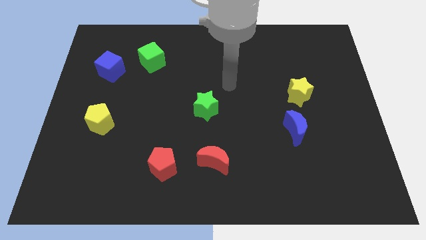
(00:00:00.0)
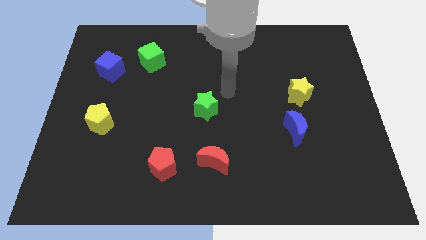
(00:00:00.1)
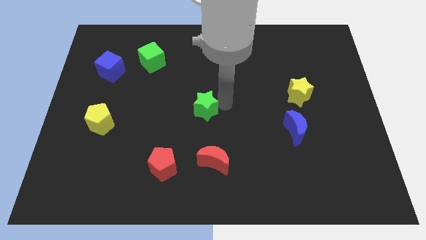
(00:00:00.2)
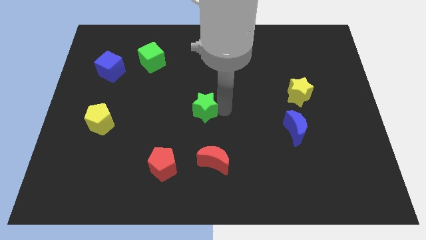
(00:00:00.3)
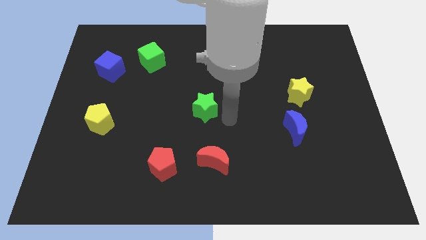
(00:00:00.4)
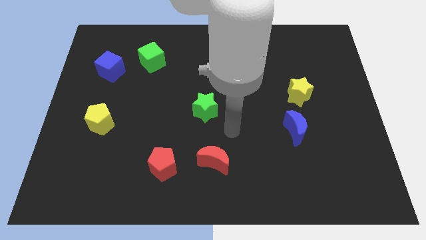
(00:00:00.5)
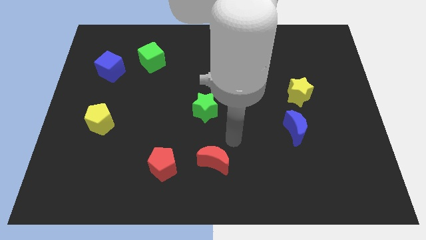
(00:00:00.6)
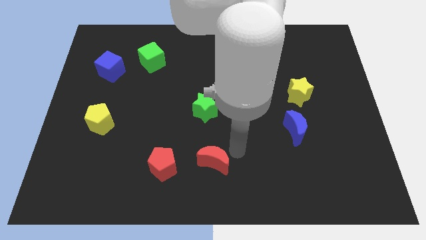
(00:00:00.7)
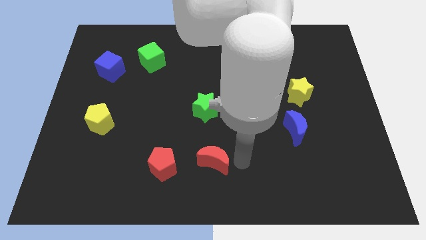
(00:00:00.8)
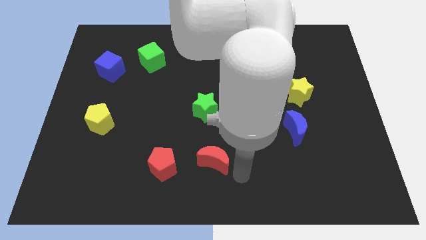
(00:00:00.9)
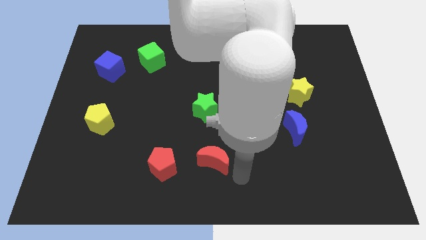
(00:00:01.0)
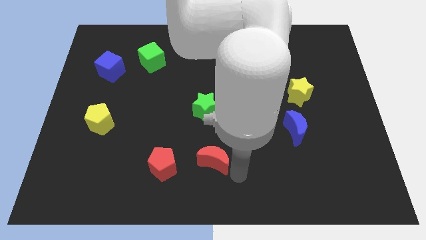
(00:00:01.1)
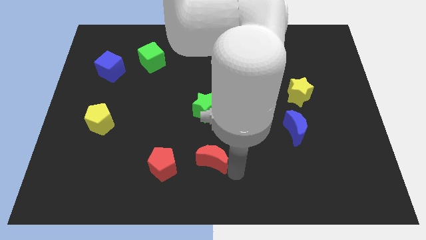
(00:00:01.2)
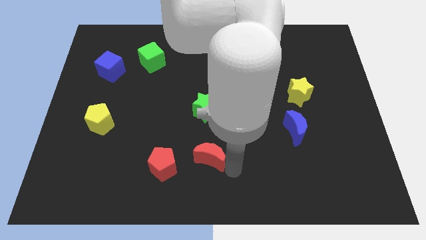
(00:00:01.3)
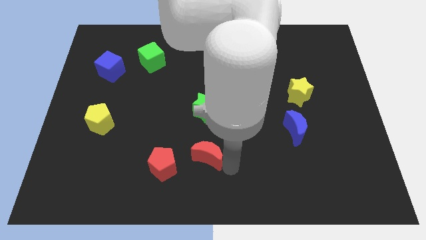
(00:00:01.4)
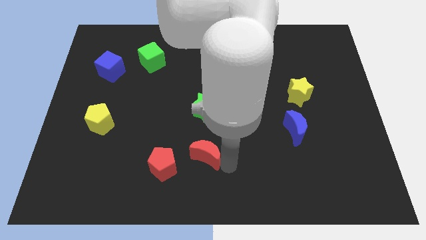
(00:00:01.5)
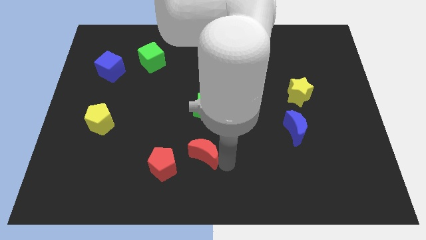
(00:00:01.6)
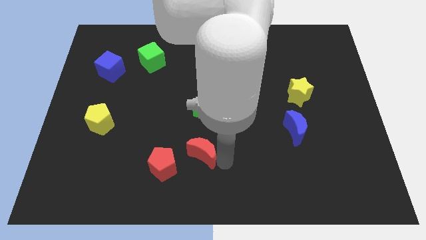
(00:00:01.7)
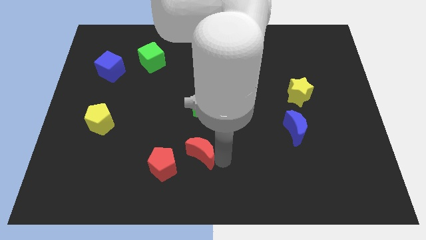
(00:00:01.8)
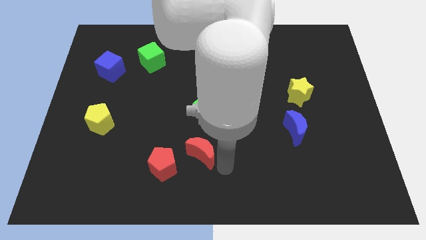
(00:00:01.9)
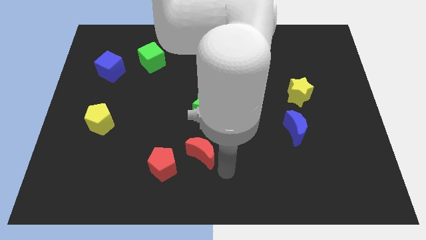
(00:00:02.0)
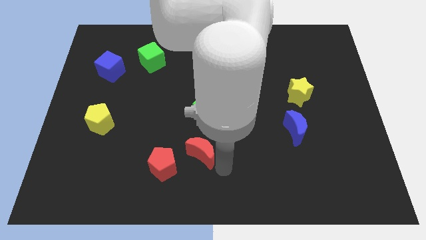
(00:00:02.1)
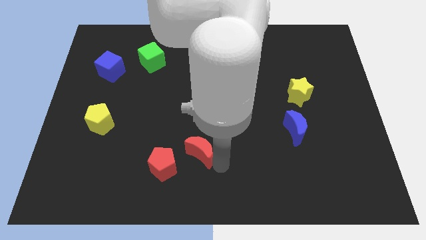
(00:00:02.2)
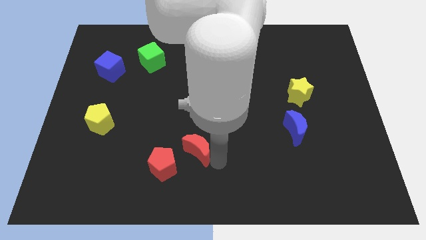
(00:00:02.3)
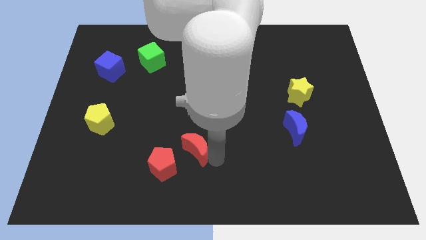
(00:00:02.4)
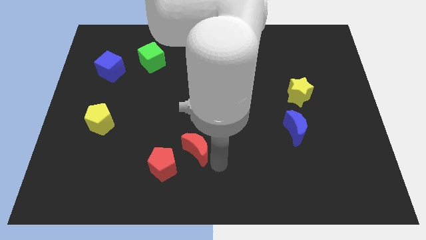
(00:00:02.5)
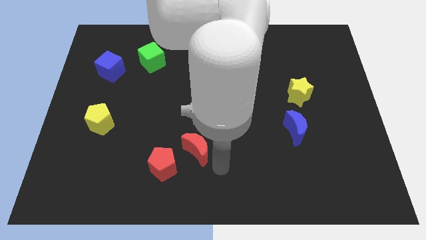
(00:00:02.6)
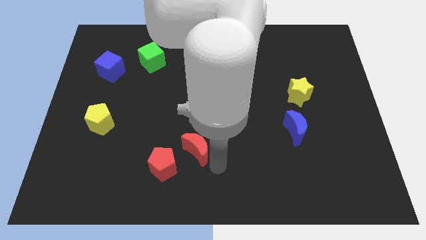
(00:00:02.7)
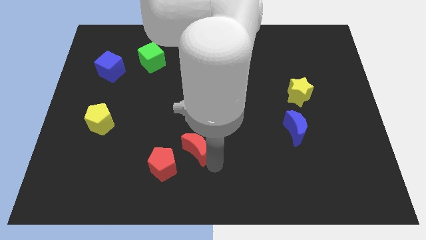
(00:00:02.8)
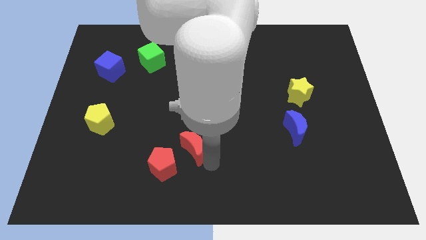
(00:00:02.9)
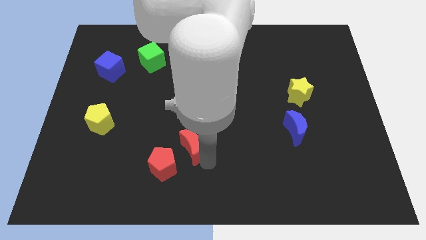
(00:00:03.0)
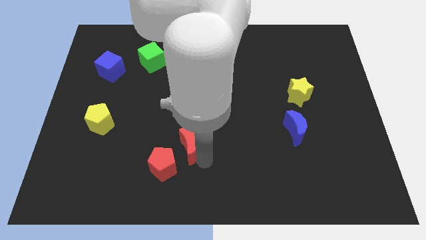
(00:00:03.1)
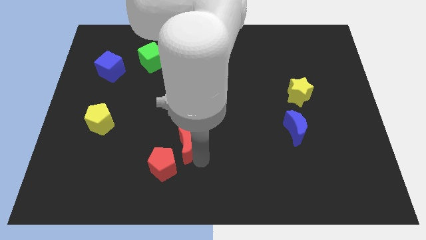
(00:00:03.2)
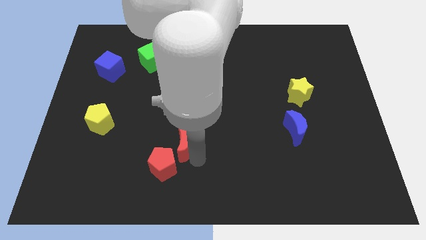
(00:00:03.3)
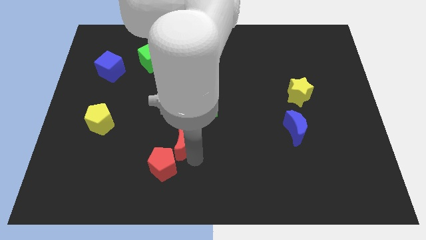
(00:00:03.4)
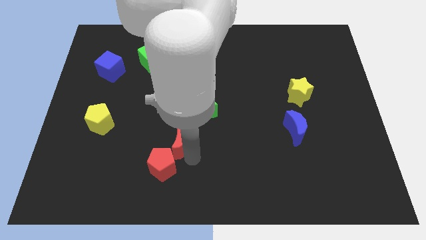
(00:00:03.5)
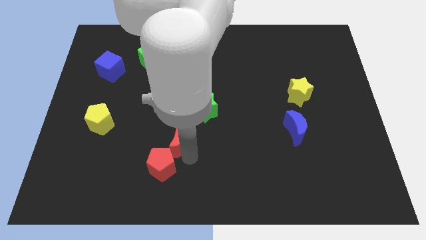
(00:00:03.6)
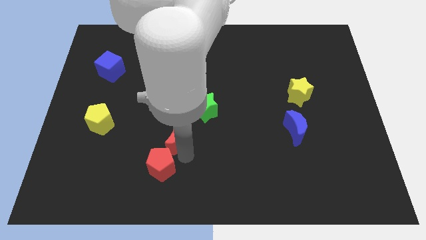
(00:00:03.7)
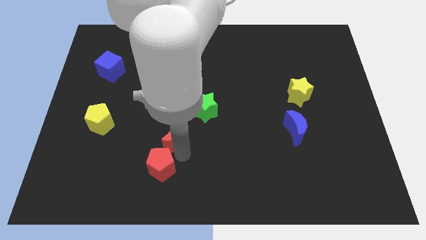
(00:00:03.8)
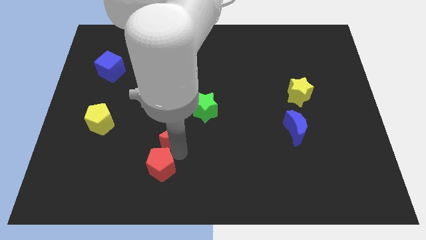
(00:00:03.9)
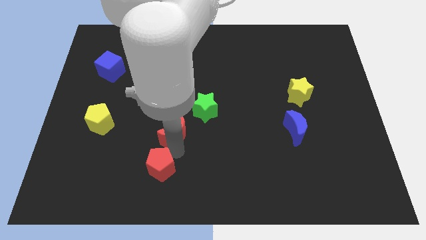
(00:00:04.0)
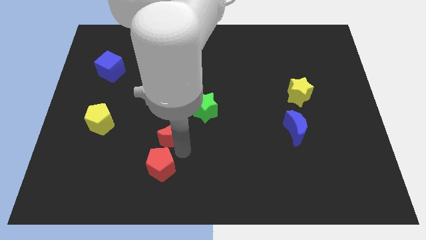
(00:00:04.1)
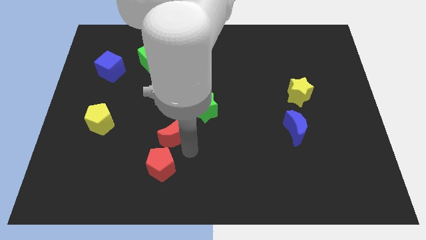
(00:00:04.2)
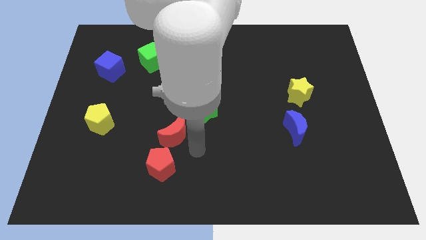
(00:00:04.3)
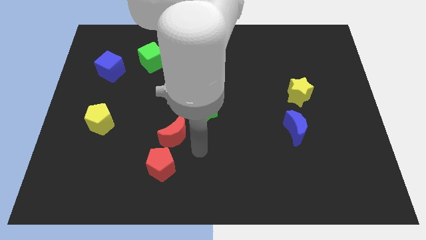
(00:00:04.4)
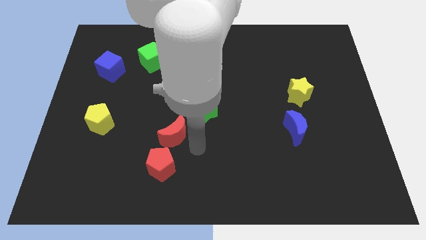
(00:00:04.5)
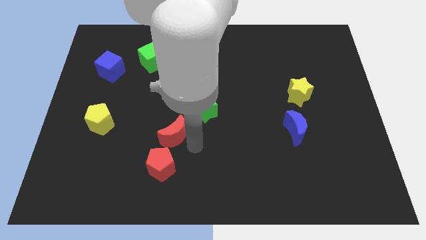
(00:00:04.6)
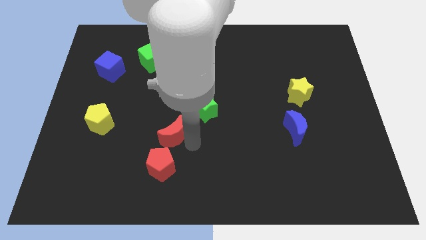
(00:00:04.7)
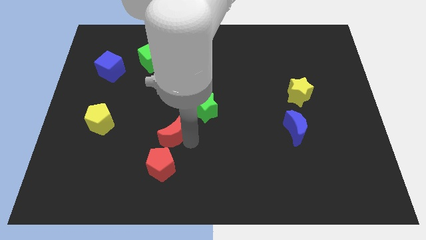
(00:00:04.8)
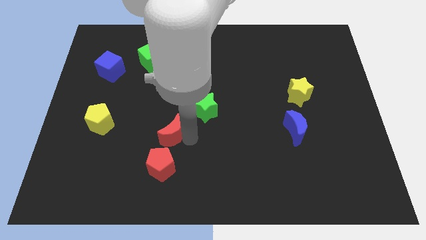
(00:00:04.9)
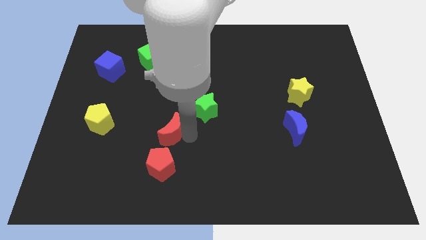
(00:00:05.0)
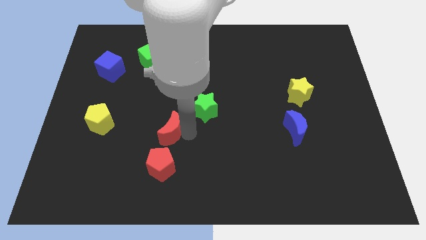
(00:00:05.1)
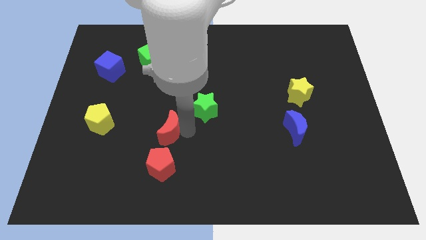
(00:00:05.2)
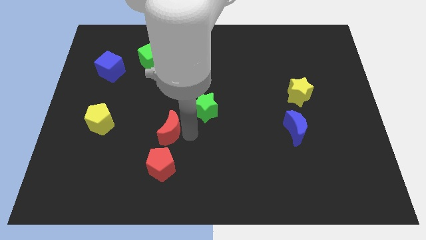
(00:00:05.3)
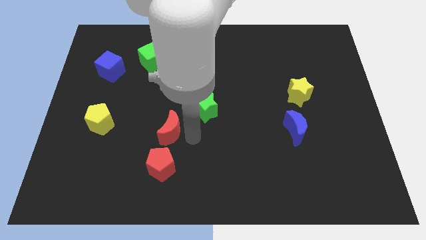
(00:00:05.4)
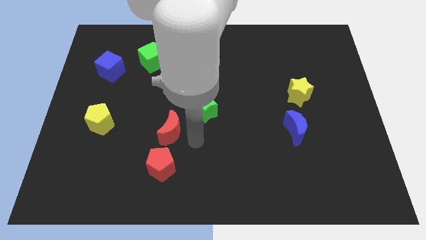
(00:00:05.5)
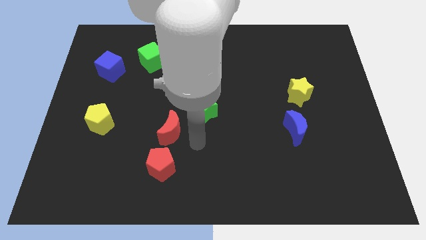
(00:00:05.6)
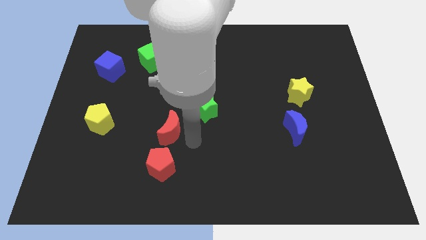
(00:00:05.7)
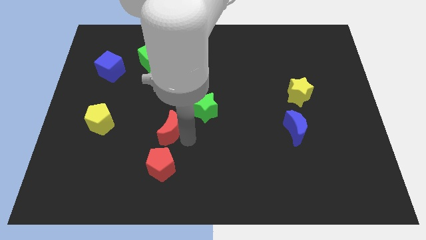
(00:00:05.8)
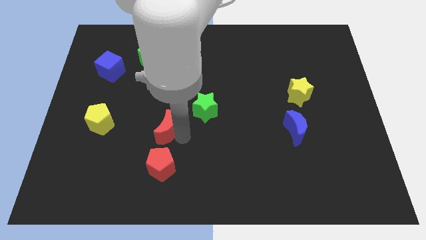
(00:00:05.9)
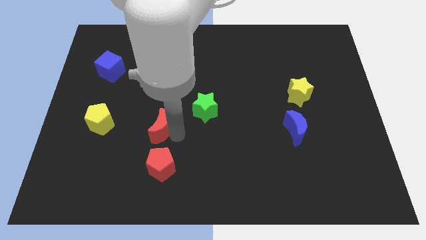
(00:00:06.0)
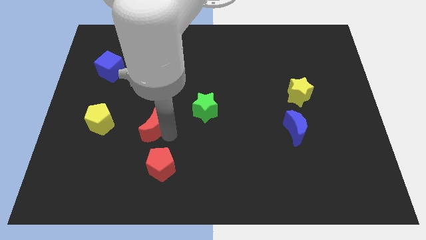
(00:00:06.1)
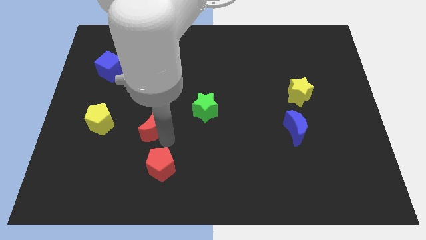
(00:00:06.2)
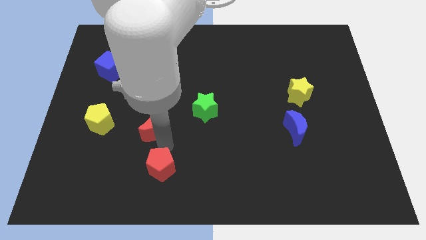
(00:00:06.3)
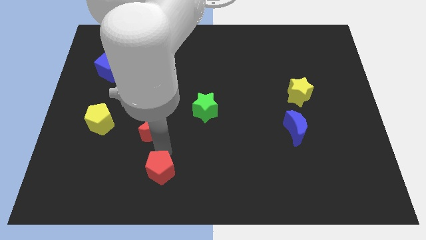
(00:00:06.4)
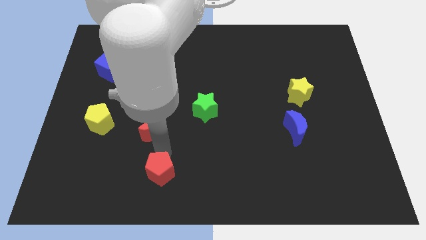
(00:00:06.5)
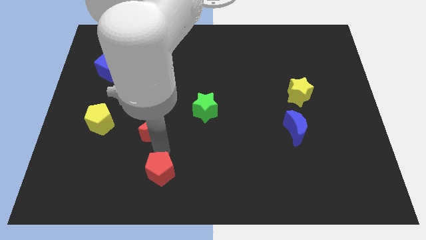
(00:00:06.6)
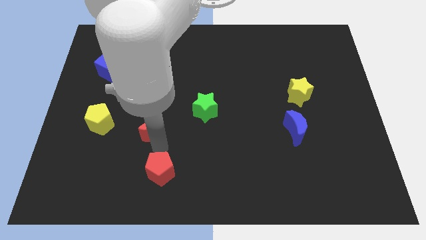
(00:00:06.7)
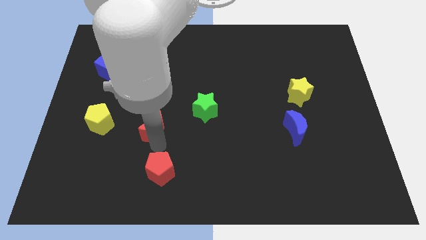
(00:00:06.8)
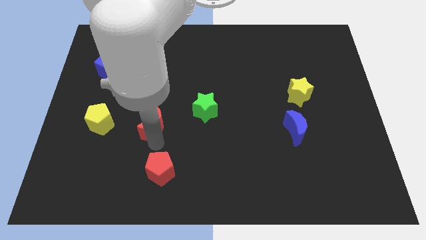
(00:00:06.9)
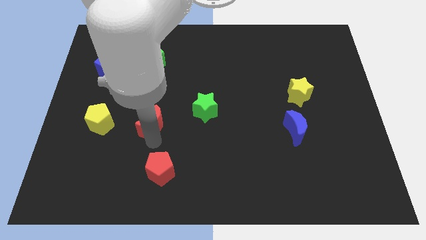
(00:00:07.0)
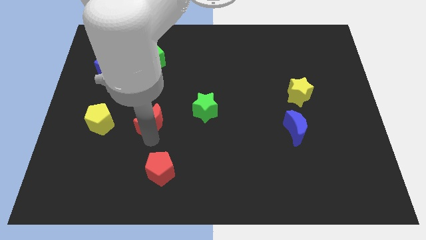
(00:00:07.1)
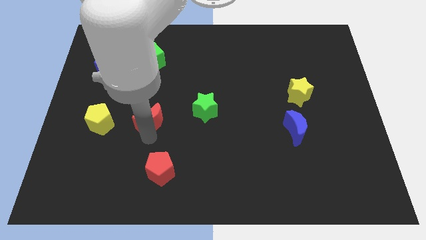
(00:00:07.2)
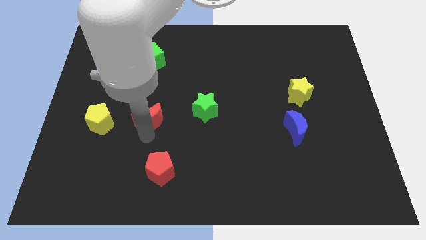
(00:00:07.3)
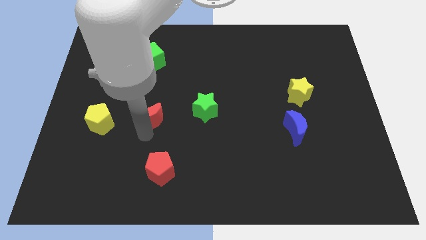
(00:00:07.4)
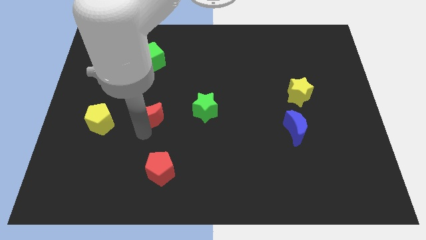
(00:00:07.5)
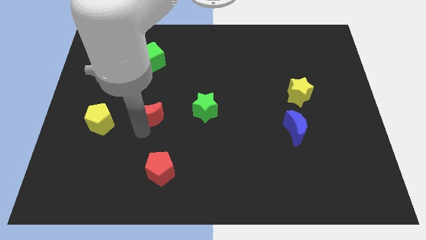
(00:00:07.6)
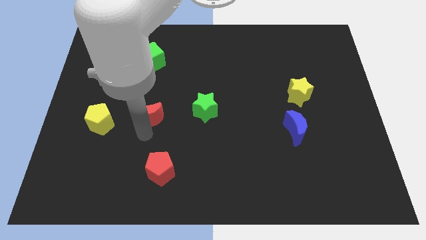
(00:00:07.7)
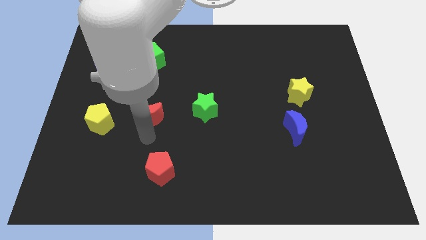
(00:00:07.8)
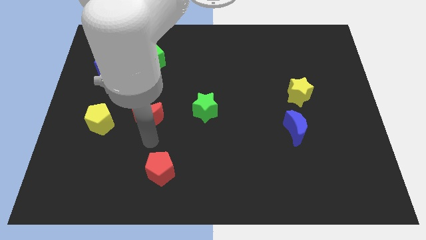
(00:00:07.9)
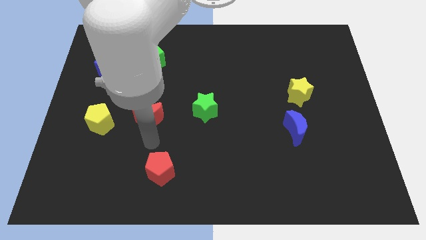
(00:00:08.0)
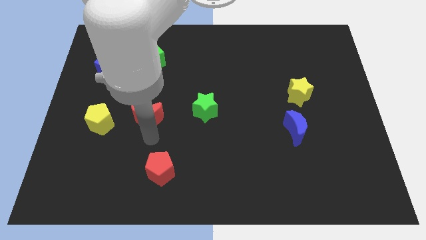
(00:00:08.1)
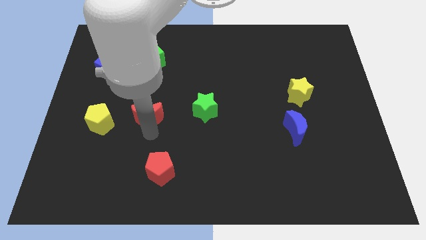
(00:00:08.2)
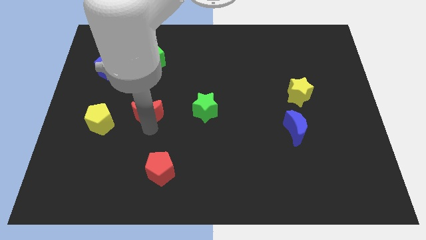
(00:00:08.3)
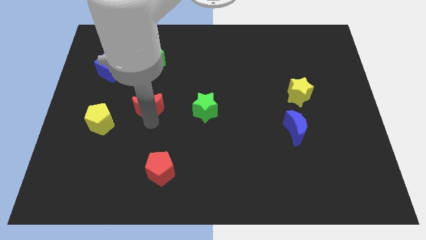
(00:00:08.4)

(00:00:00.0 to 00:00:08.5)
slide the red moon upwards and then left
